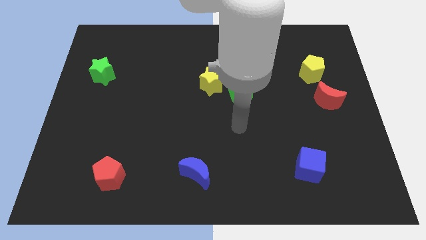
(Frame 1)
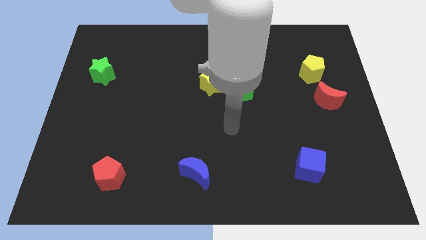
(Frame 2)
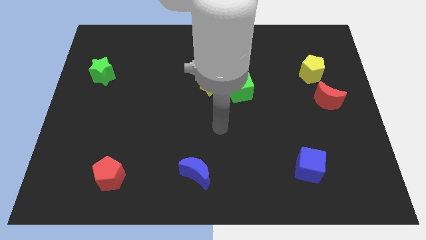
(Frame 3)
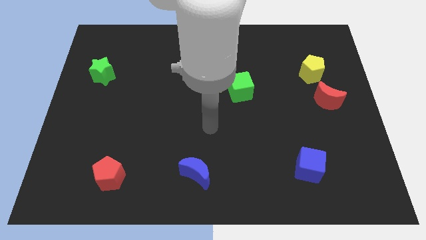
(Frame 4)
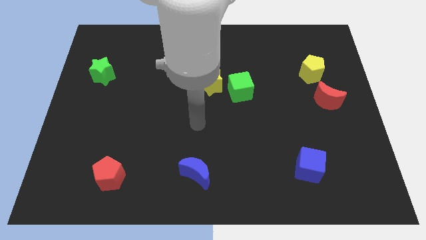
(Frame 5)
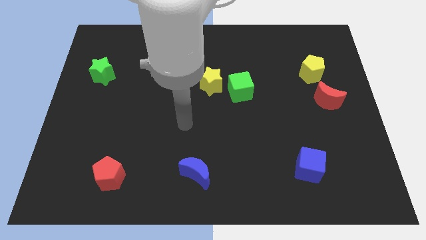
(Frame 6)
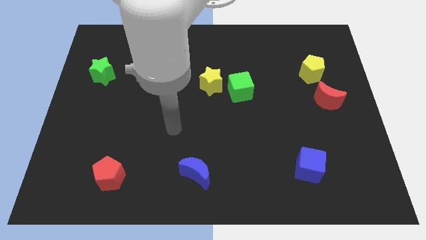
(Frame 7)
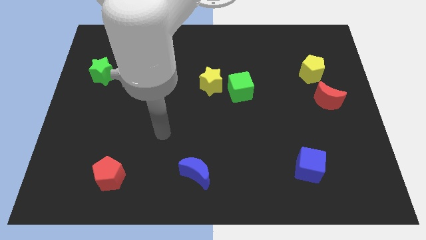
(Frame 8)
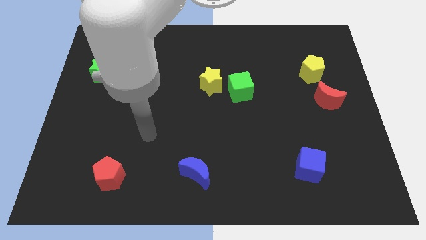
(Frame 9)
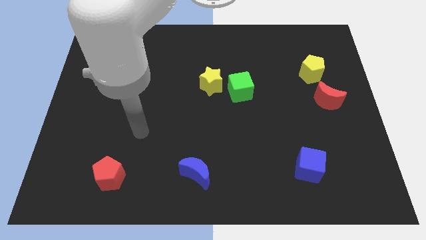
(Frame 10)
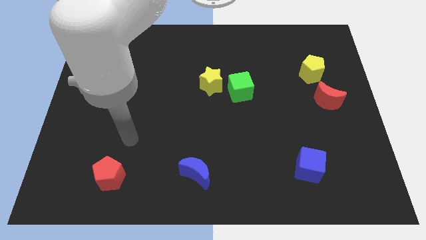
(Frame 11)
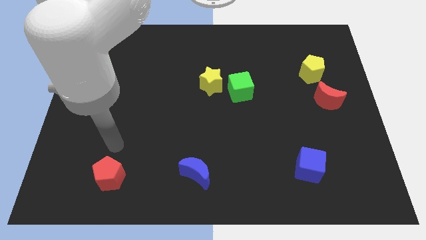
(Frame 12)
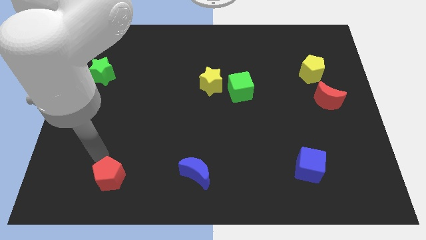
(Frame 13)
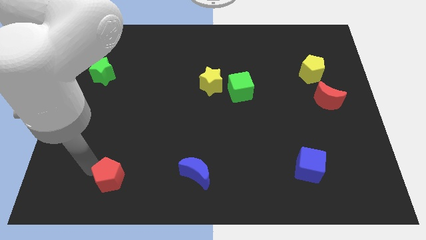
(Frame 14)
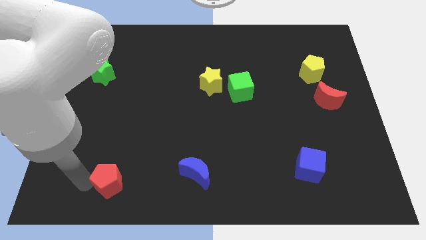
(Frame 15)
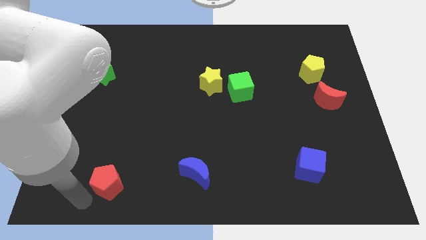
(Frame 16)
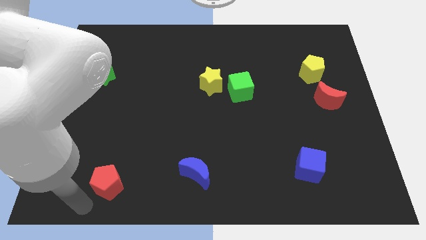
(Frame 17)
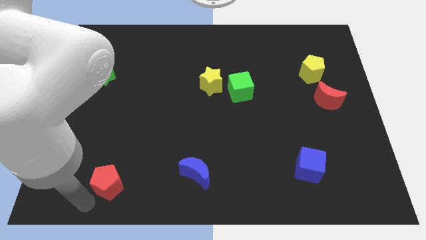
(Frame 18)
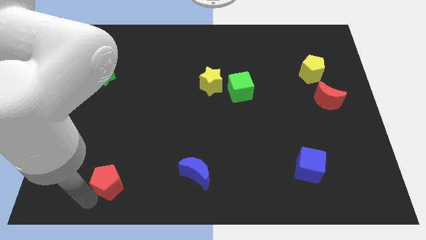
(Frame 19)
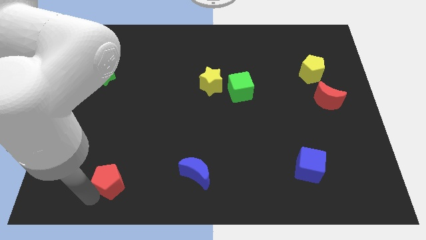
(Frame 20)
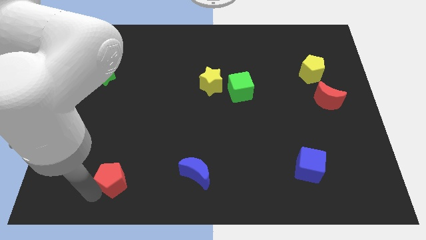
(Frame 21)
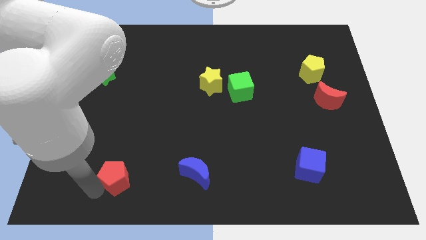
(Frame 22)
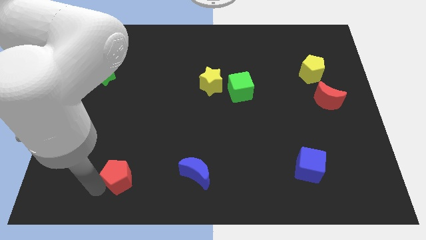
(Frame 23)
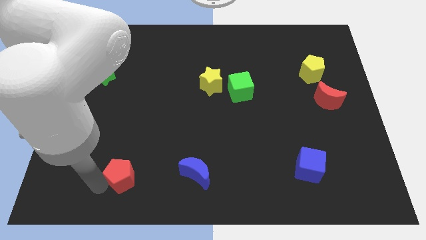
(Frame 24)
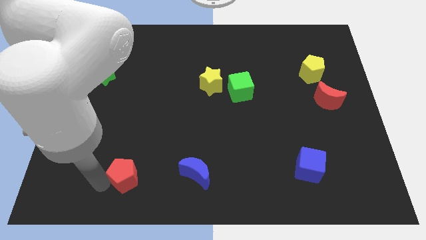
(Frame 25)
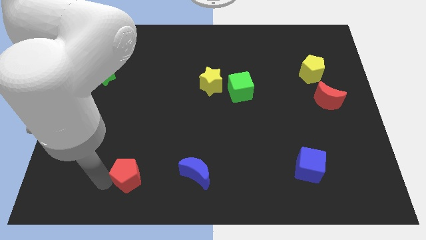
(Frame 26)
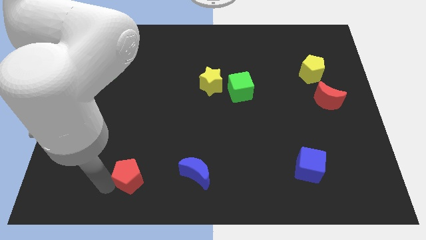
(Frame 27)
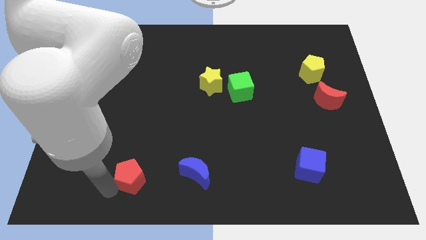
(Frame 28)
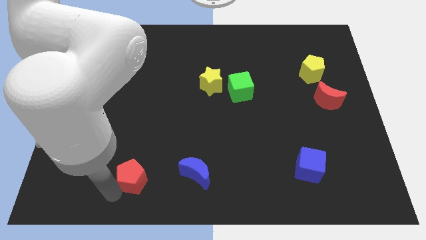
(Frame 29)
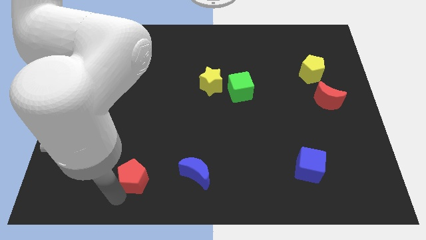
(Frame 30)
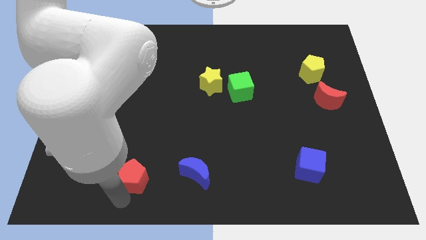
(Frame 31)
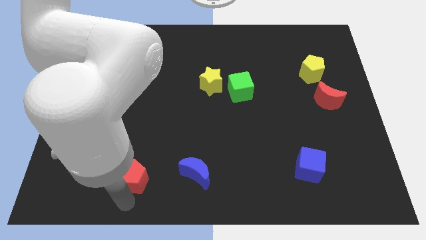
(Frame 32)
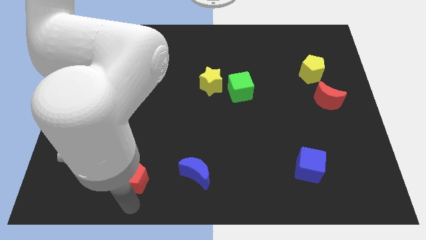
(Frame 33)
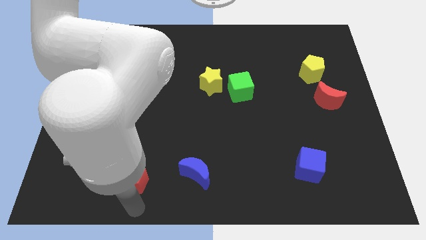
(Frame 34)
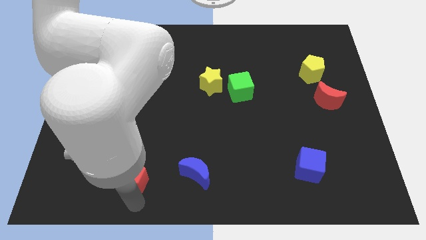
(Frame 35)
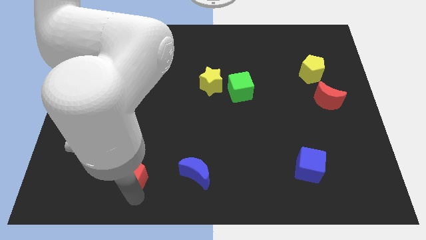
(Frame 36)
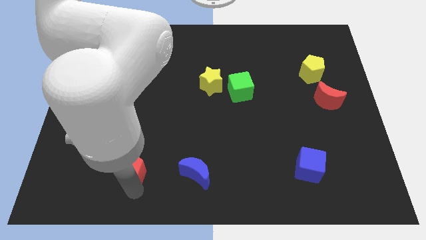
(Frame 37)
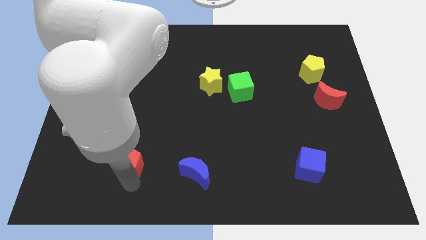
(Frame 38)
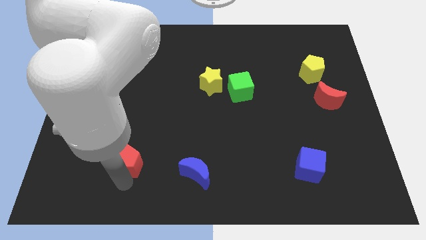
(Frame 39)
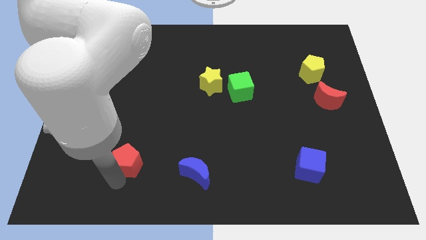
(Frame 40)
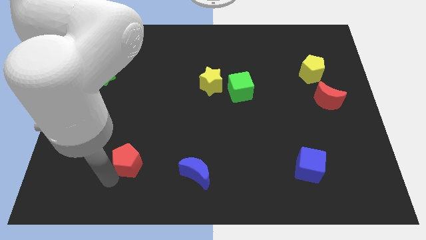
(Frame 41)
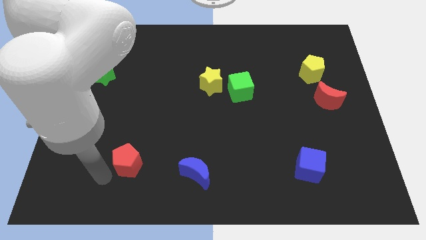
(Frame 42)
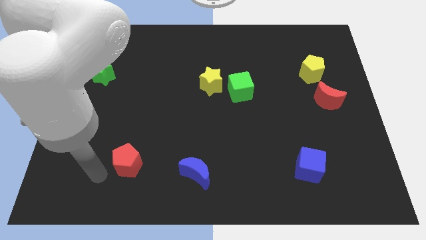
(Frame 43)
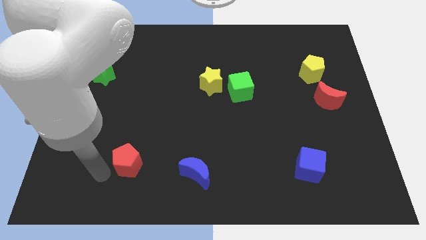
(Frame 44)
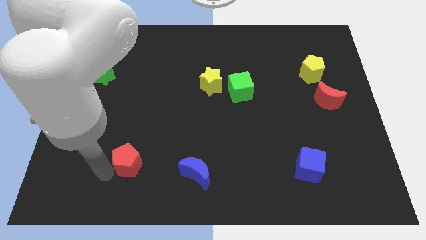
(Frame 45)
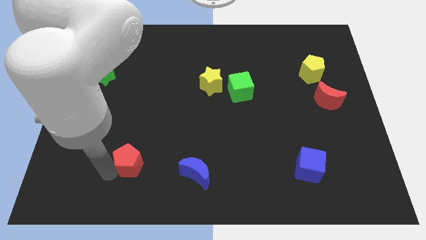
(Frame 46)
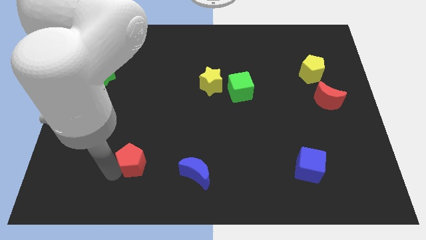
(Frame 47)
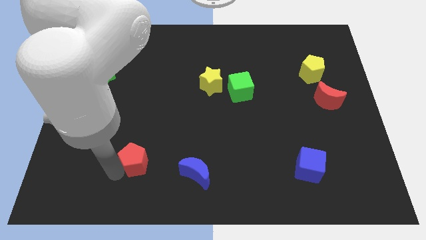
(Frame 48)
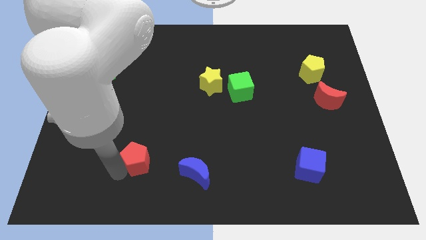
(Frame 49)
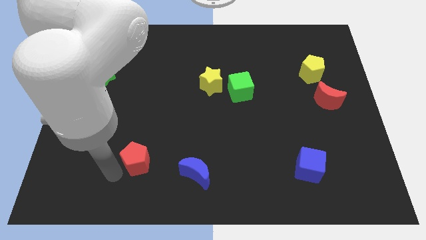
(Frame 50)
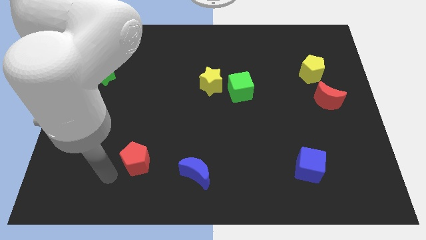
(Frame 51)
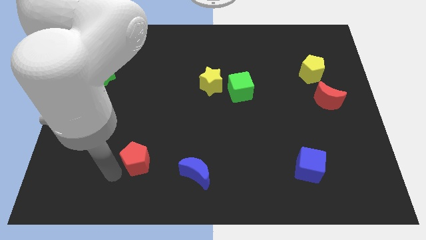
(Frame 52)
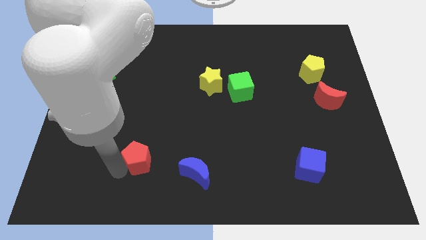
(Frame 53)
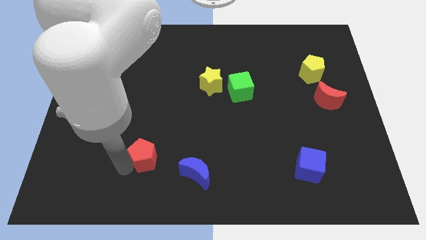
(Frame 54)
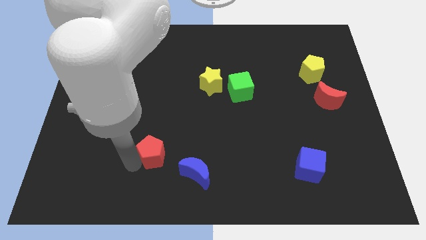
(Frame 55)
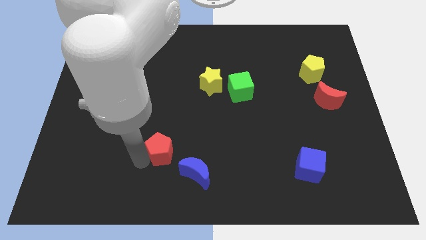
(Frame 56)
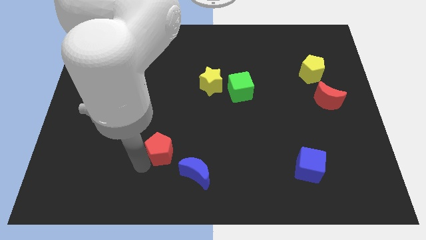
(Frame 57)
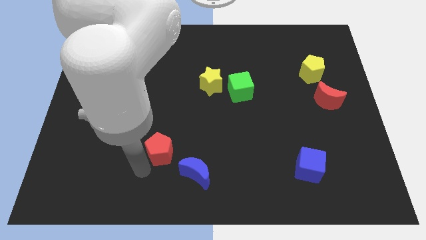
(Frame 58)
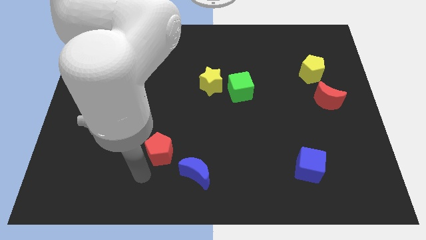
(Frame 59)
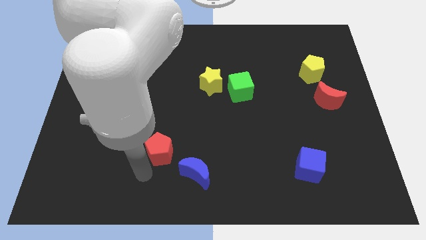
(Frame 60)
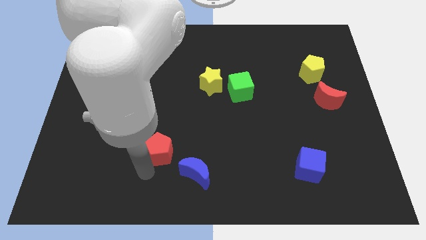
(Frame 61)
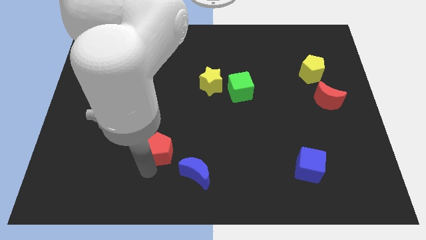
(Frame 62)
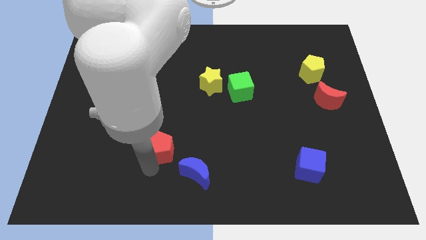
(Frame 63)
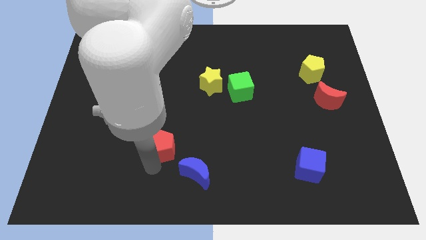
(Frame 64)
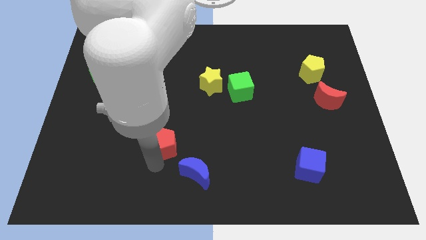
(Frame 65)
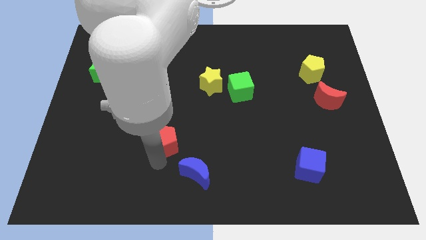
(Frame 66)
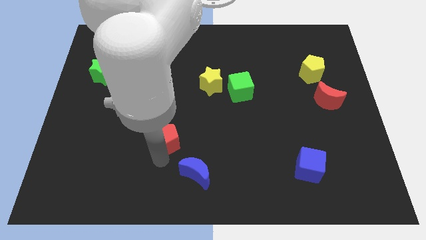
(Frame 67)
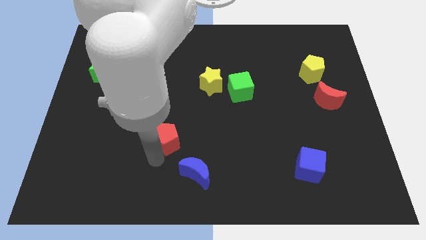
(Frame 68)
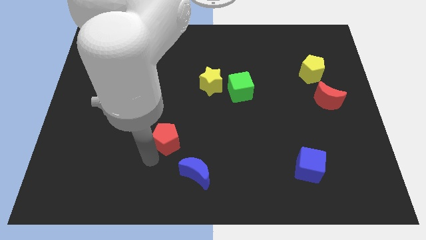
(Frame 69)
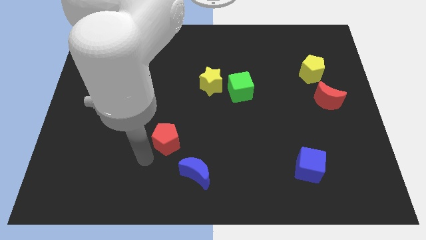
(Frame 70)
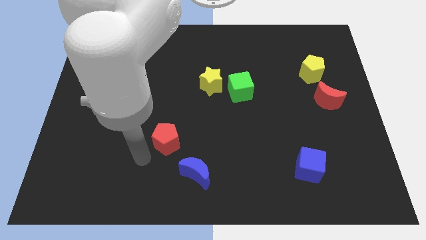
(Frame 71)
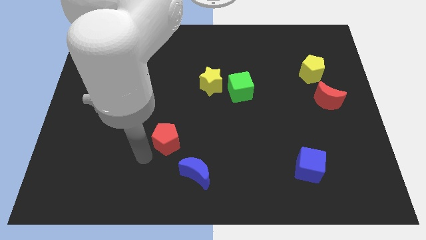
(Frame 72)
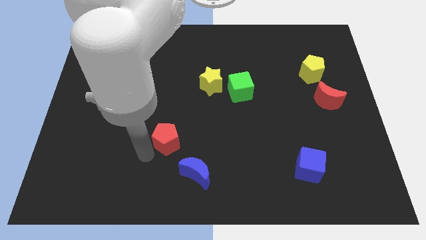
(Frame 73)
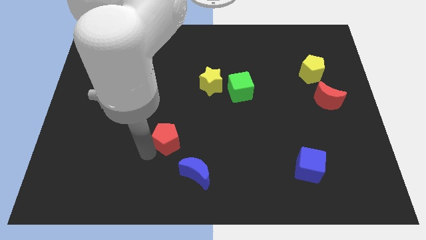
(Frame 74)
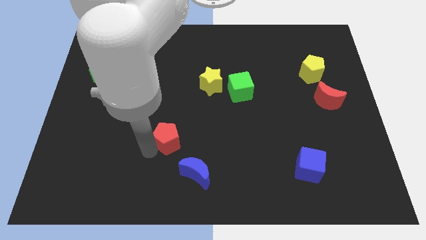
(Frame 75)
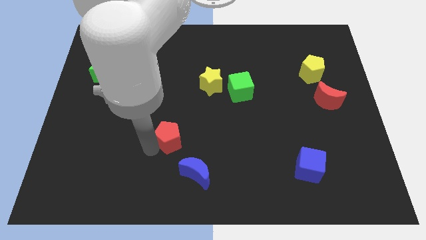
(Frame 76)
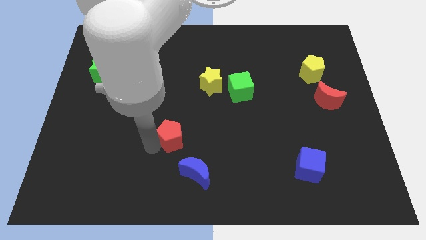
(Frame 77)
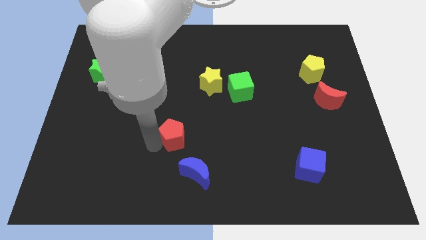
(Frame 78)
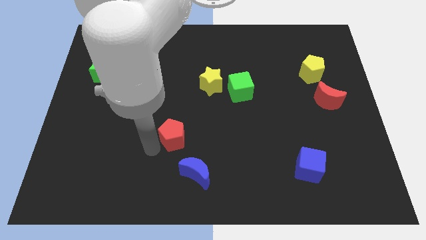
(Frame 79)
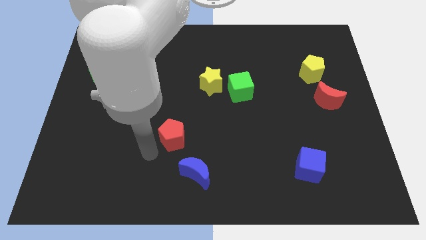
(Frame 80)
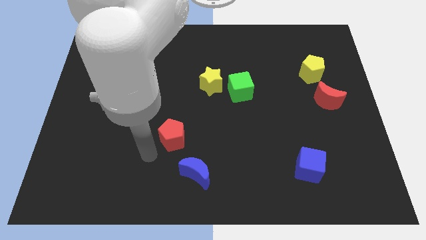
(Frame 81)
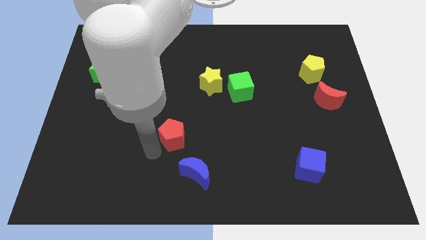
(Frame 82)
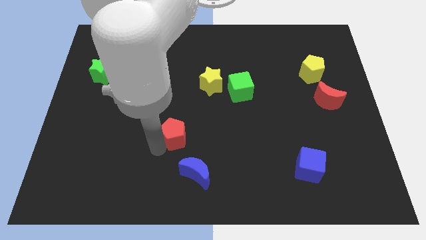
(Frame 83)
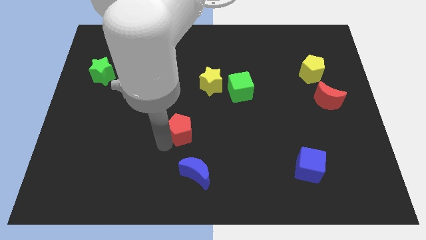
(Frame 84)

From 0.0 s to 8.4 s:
put the red pentagon to the middle
